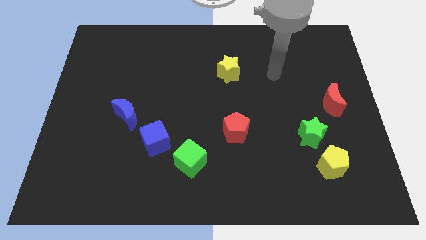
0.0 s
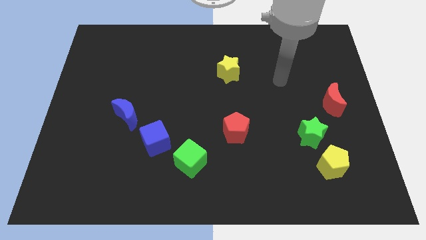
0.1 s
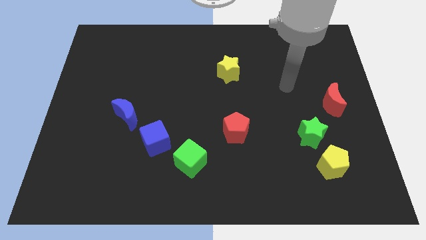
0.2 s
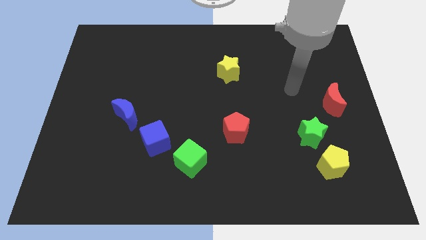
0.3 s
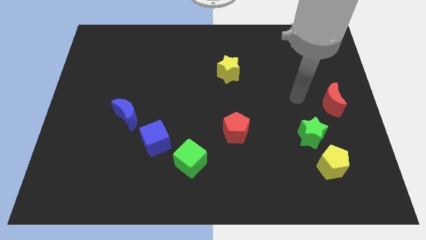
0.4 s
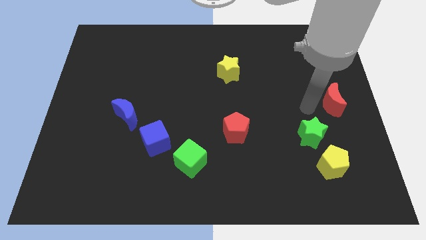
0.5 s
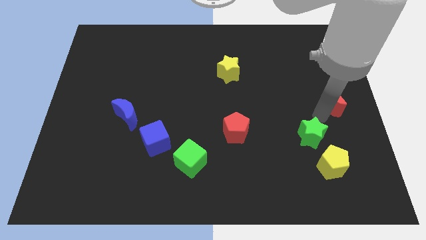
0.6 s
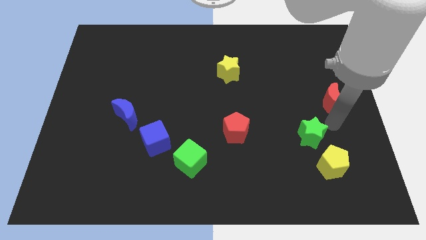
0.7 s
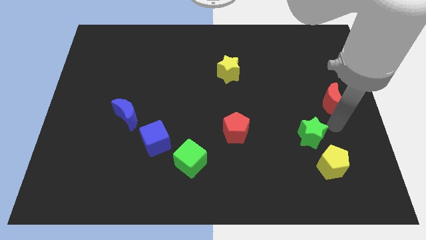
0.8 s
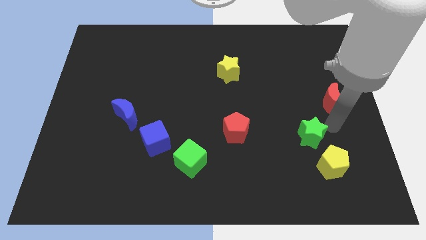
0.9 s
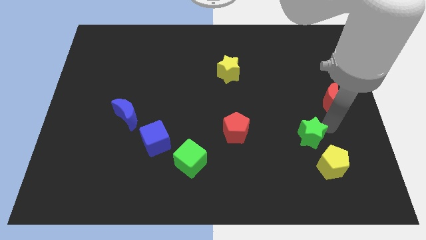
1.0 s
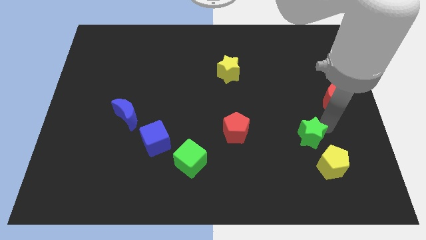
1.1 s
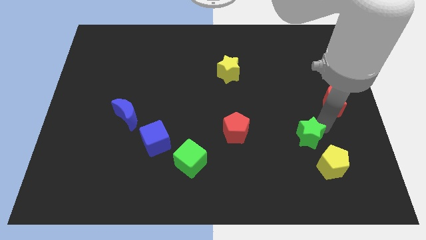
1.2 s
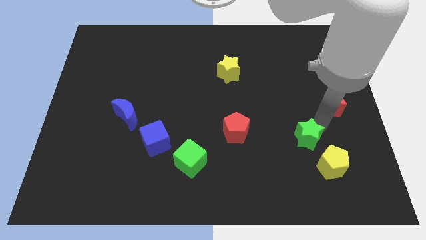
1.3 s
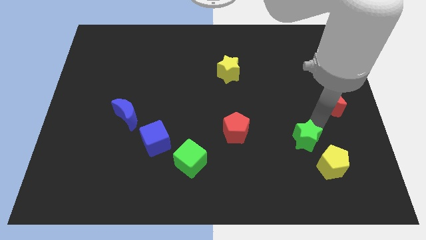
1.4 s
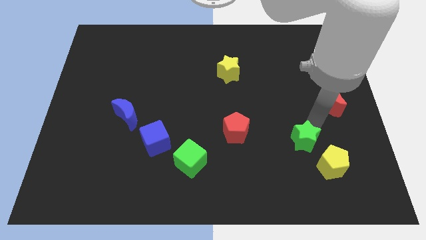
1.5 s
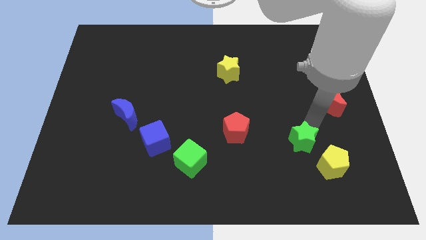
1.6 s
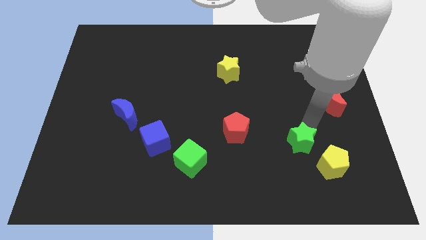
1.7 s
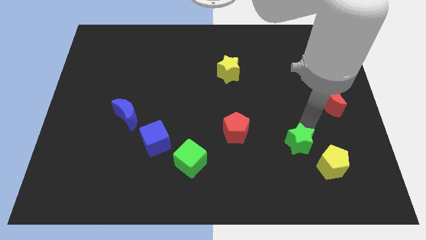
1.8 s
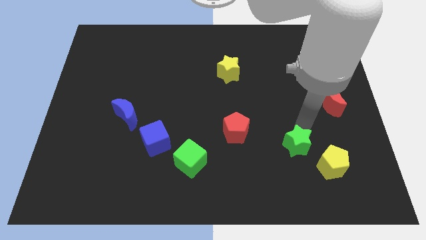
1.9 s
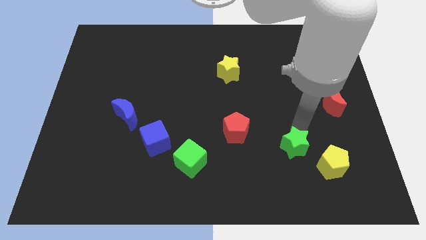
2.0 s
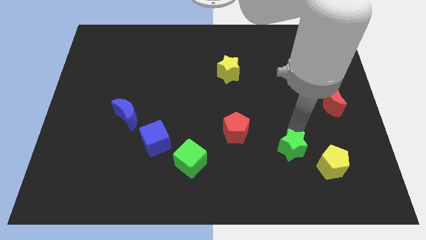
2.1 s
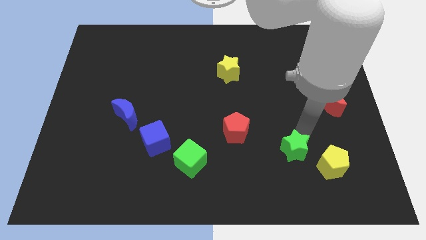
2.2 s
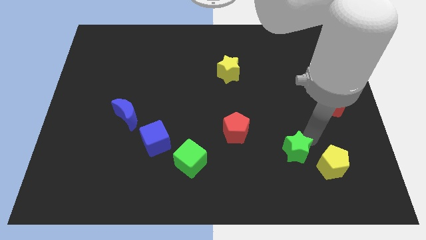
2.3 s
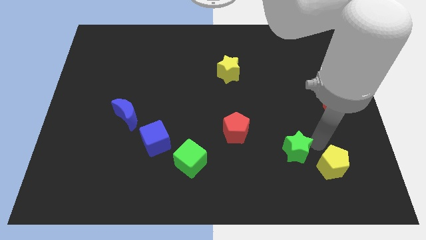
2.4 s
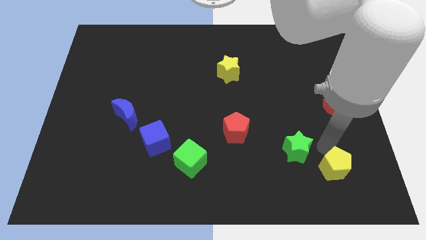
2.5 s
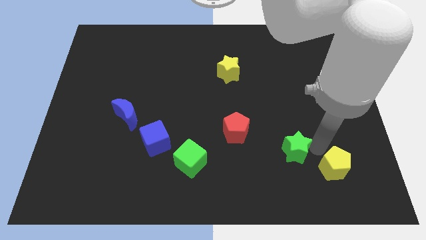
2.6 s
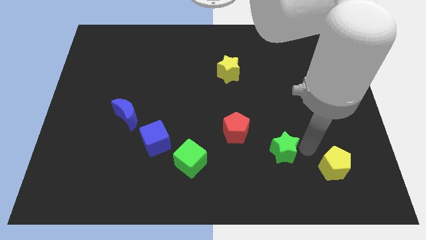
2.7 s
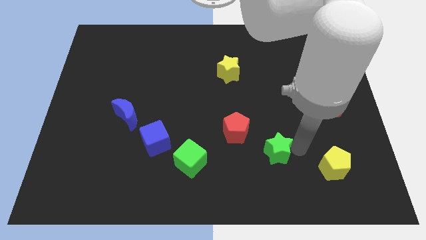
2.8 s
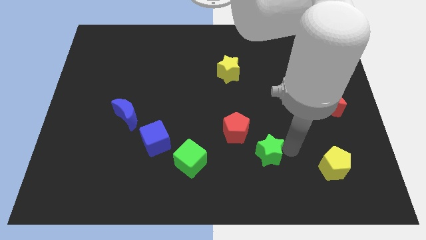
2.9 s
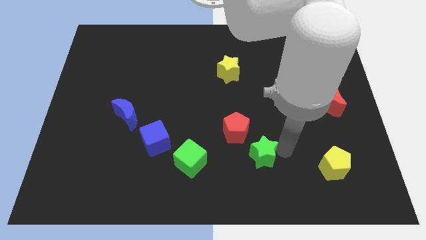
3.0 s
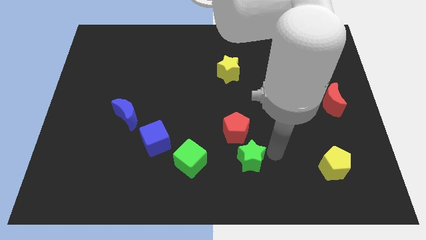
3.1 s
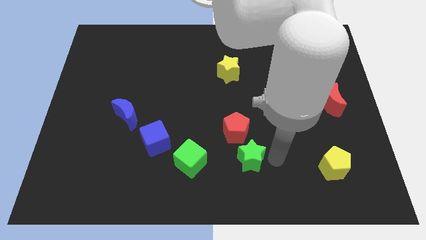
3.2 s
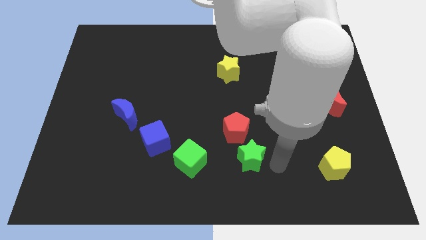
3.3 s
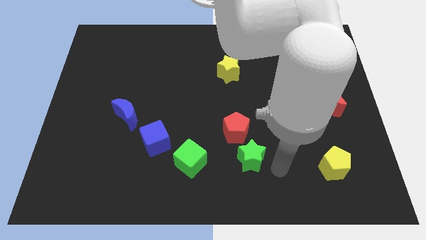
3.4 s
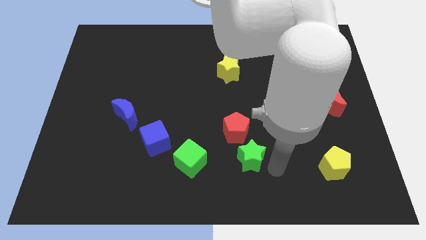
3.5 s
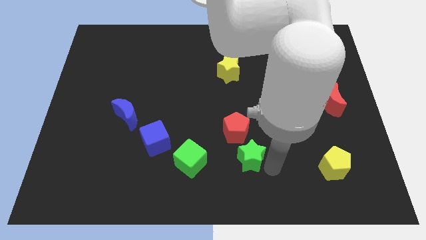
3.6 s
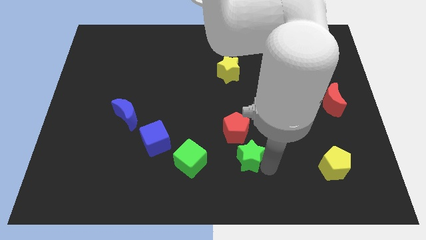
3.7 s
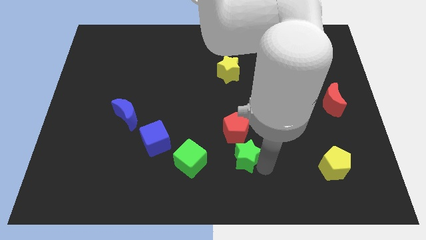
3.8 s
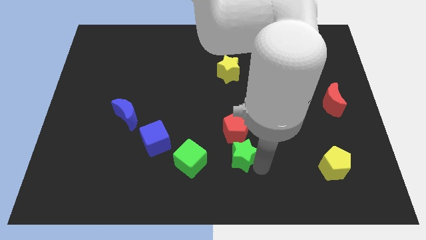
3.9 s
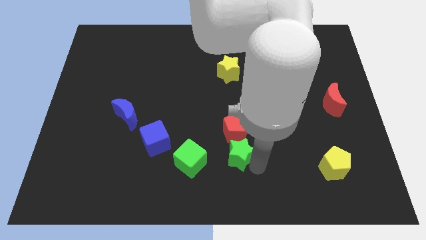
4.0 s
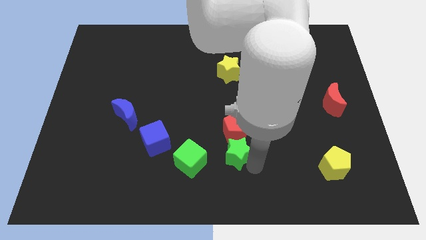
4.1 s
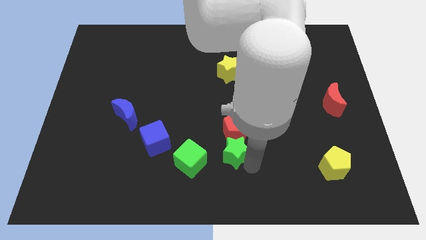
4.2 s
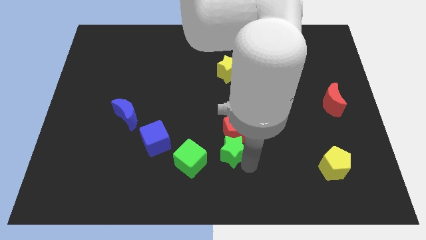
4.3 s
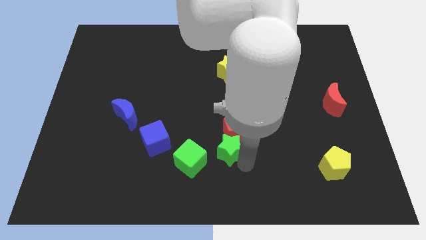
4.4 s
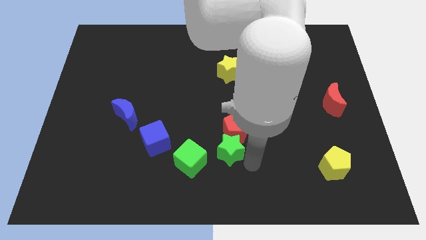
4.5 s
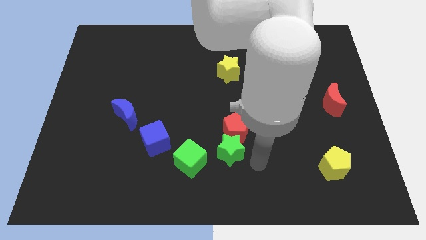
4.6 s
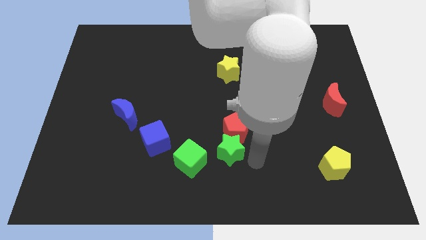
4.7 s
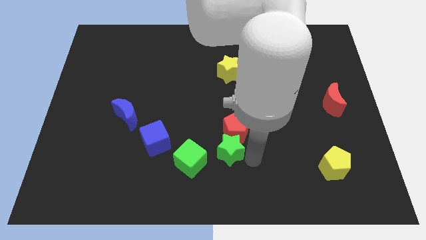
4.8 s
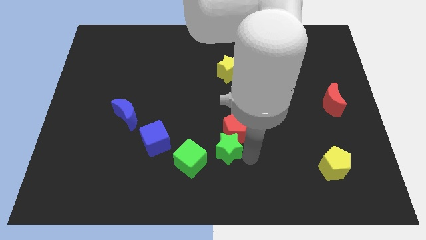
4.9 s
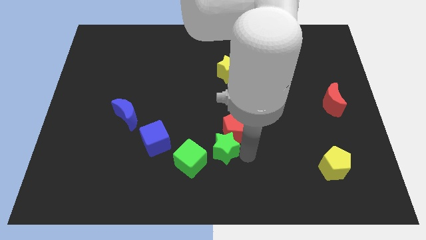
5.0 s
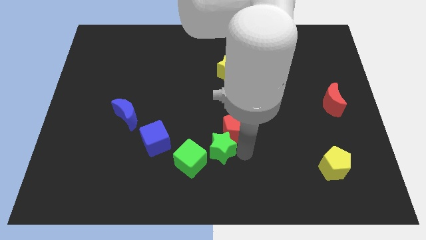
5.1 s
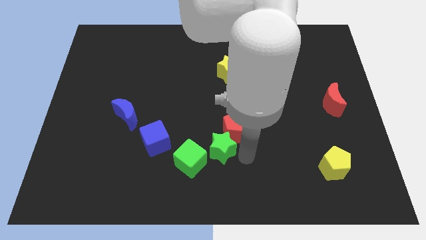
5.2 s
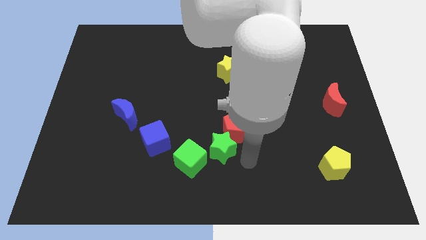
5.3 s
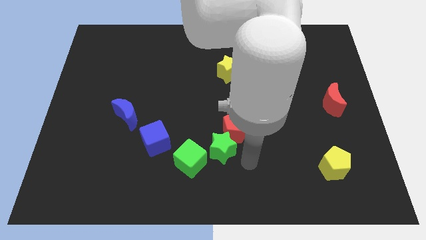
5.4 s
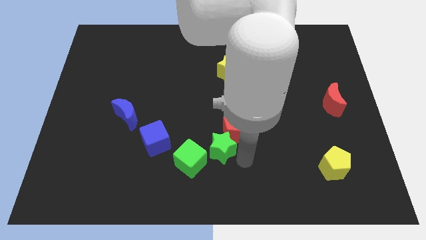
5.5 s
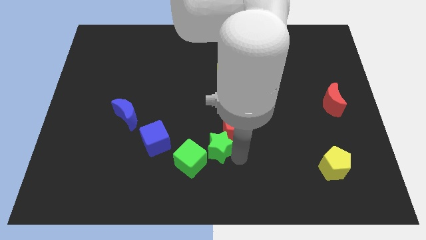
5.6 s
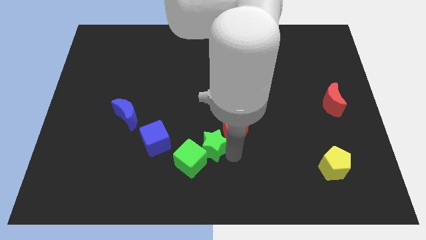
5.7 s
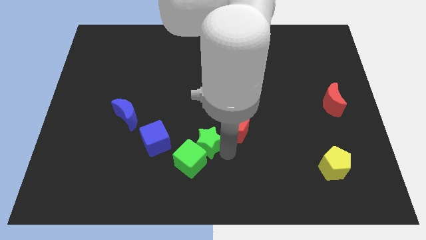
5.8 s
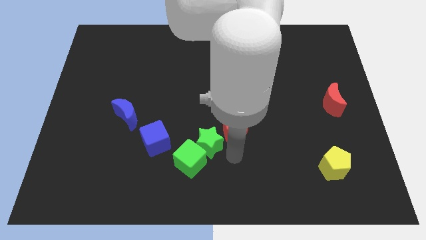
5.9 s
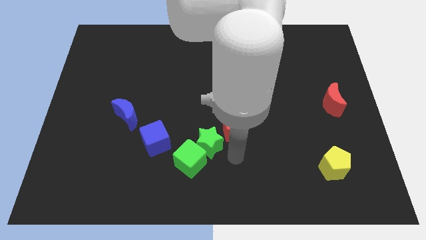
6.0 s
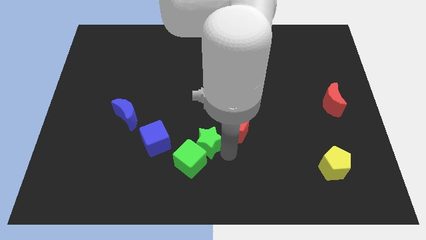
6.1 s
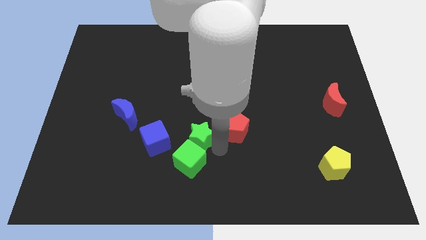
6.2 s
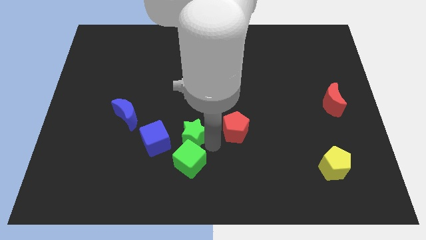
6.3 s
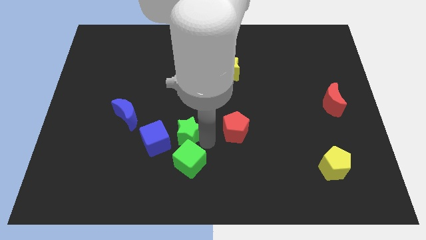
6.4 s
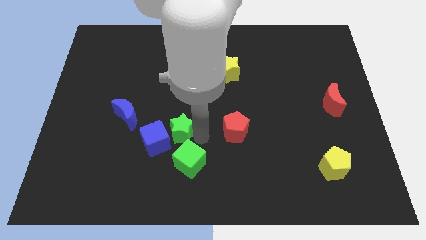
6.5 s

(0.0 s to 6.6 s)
push the green star next to the blue cube

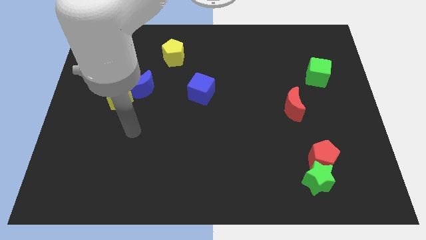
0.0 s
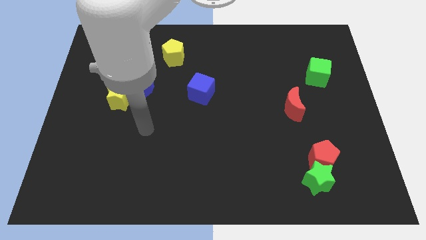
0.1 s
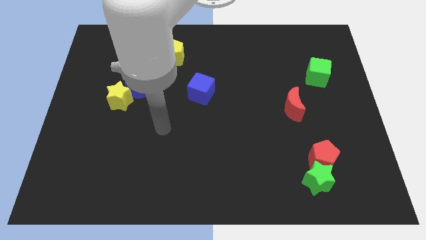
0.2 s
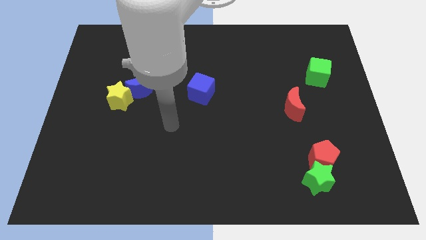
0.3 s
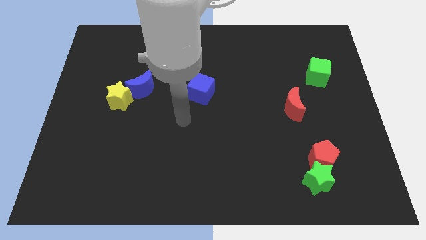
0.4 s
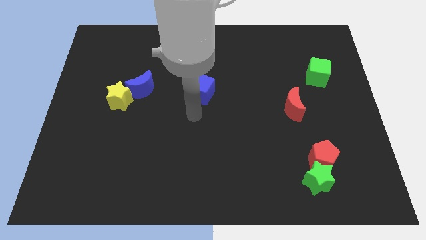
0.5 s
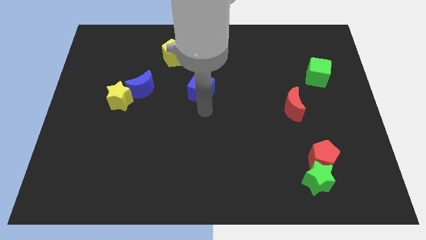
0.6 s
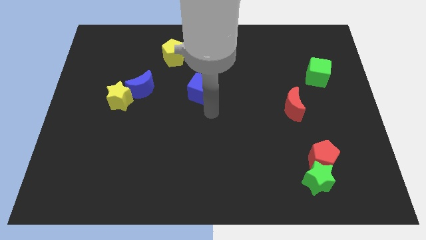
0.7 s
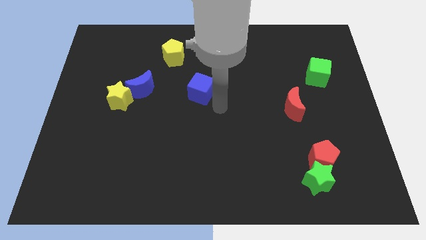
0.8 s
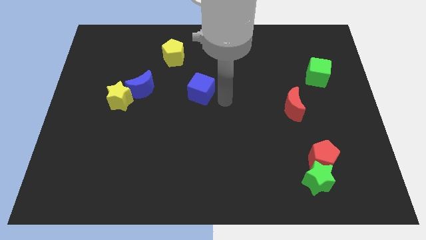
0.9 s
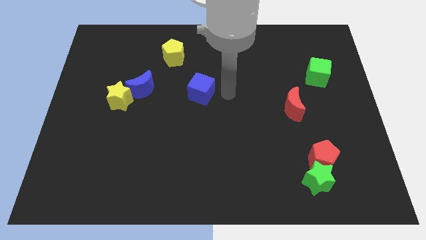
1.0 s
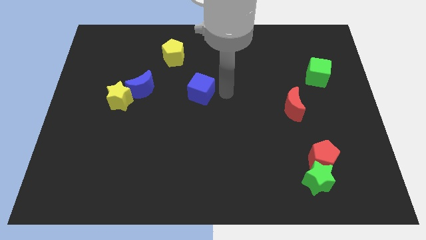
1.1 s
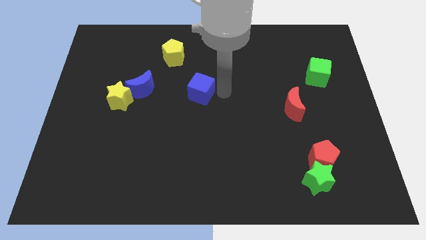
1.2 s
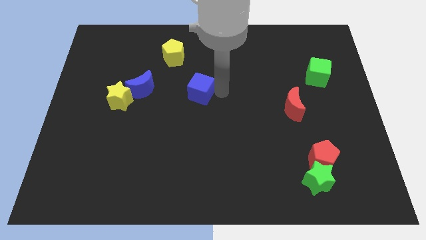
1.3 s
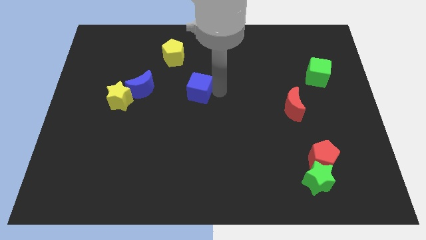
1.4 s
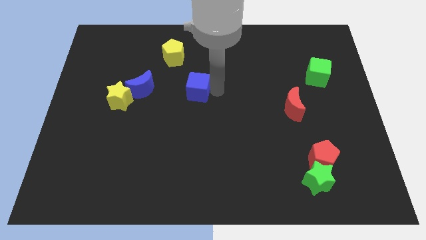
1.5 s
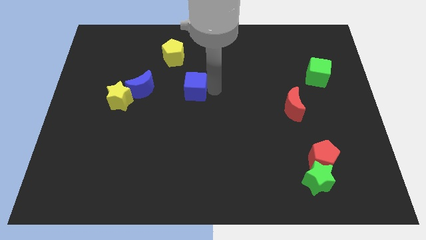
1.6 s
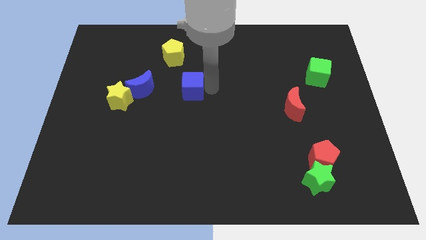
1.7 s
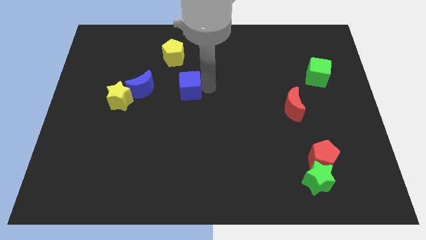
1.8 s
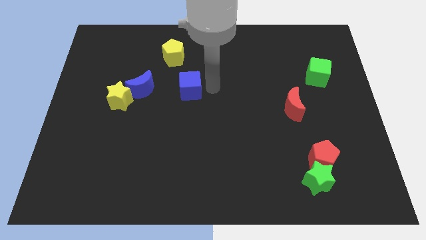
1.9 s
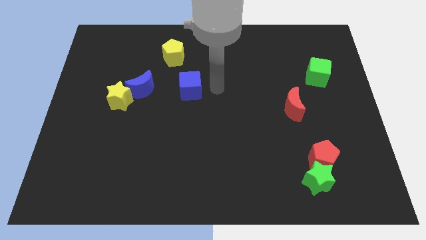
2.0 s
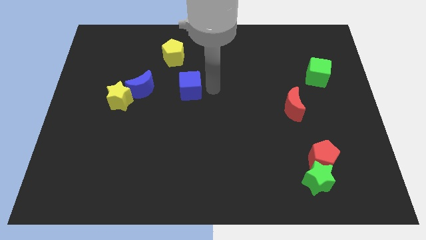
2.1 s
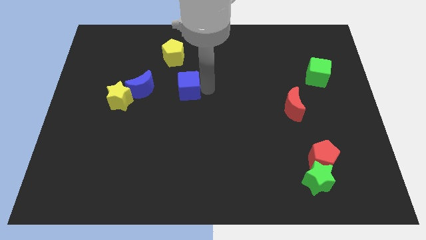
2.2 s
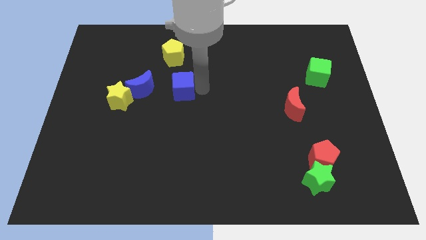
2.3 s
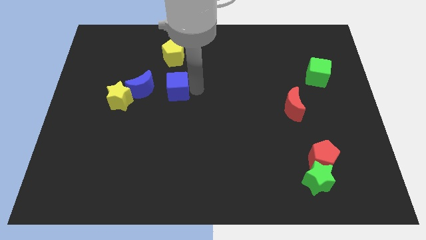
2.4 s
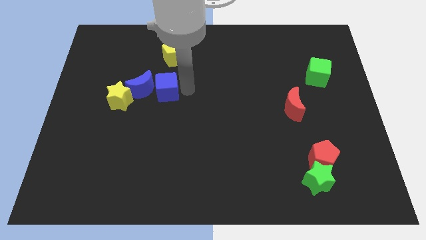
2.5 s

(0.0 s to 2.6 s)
push the blue cube next to the blue moon
